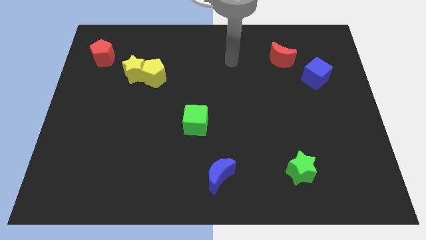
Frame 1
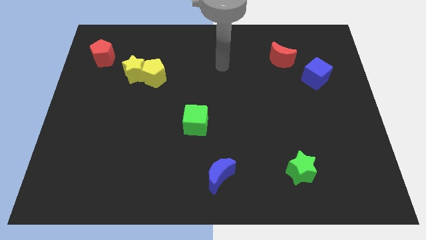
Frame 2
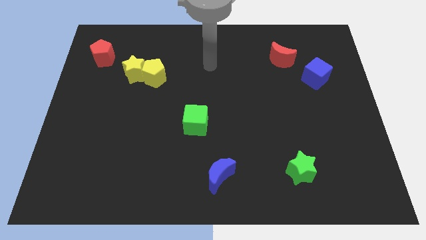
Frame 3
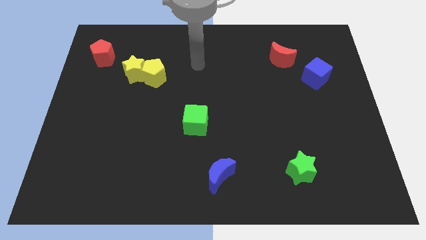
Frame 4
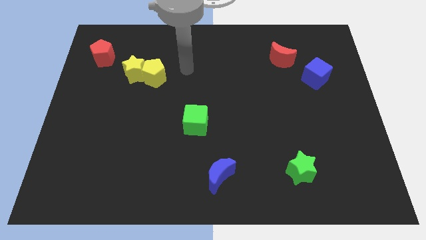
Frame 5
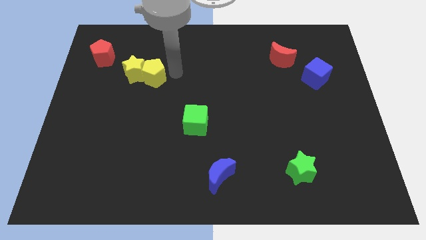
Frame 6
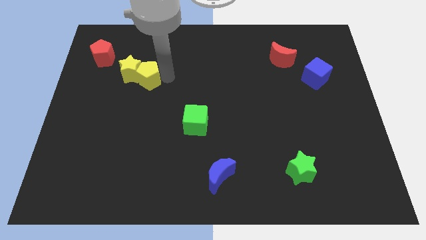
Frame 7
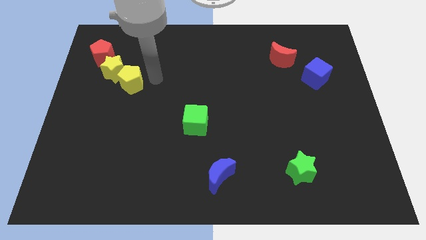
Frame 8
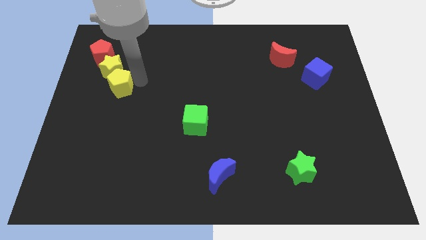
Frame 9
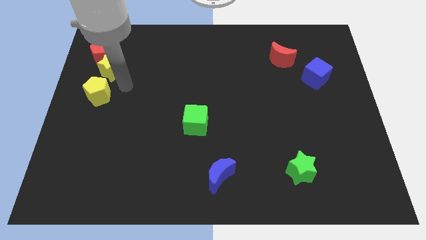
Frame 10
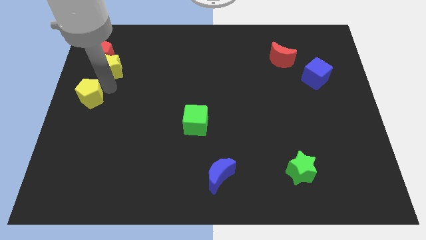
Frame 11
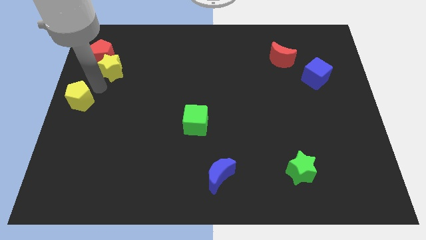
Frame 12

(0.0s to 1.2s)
pull the yellow star apart from the yellow pentagon

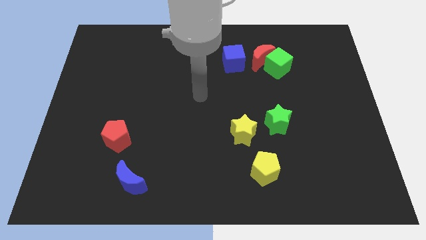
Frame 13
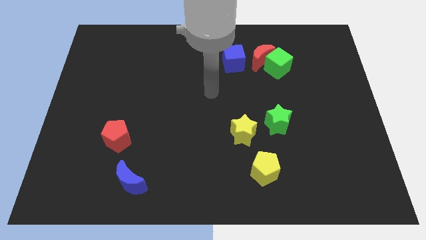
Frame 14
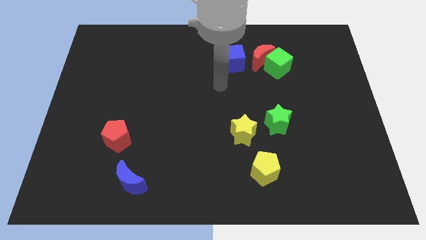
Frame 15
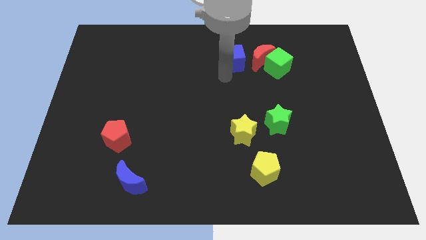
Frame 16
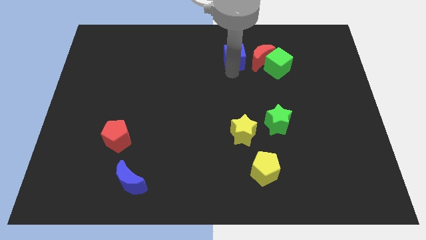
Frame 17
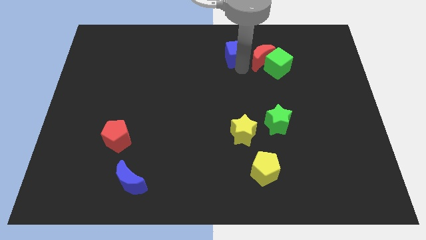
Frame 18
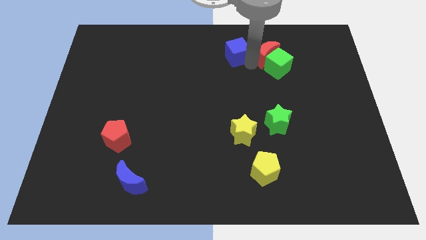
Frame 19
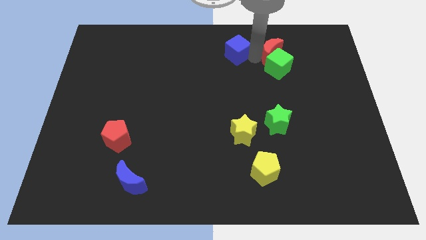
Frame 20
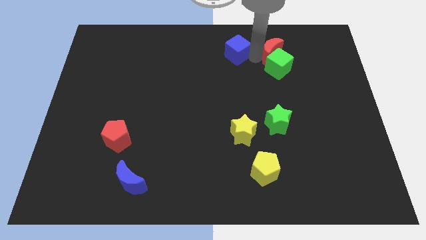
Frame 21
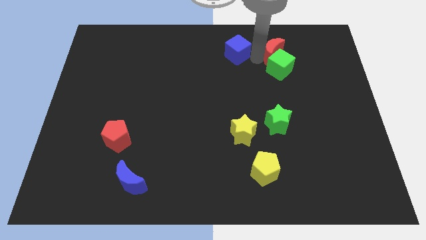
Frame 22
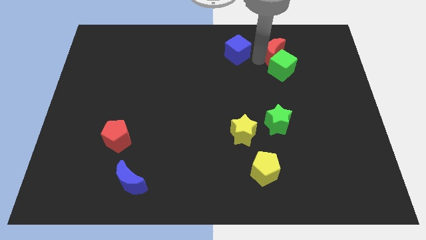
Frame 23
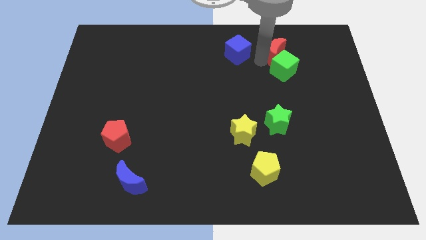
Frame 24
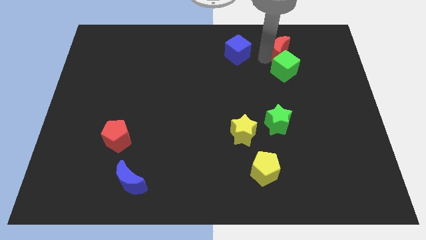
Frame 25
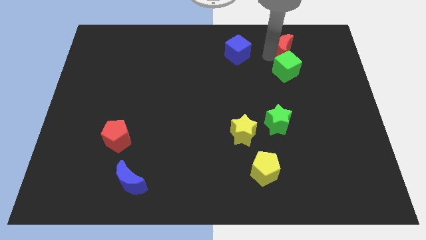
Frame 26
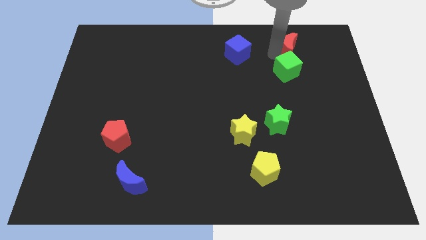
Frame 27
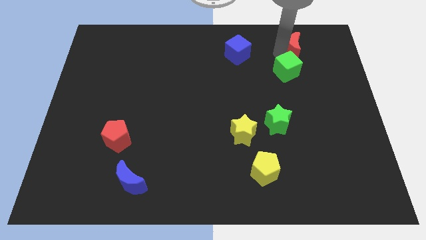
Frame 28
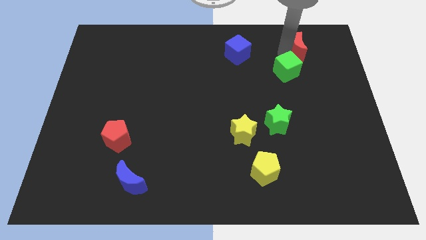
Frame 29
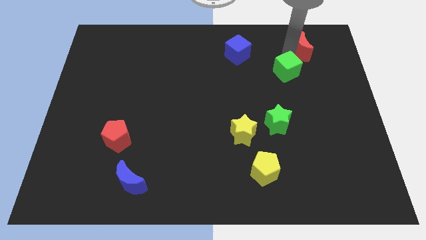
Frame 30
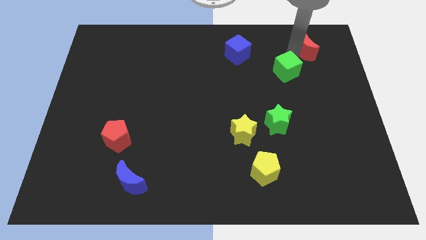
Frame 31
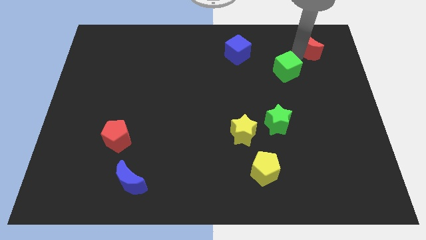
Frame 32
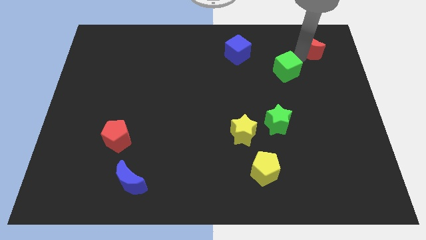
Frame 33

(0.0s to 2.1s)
separate the green cube from the red moon

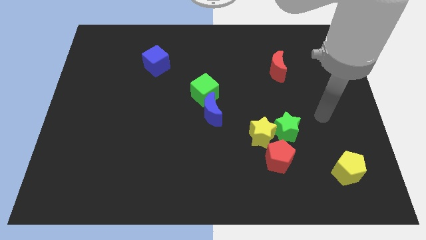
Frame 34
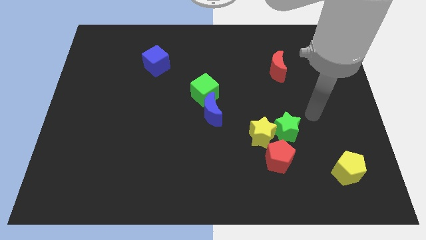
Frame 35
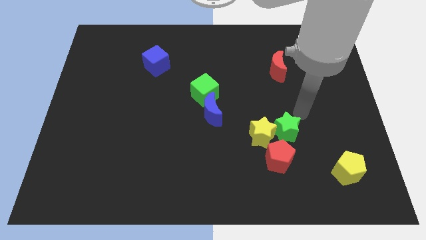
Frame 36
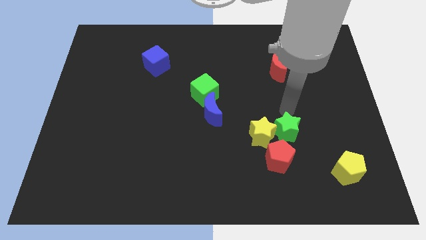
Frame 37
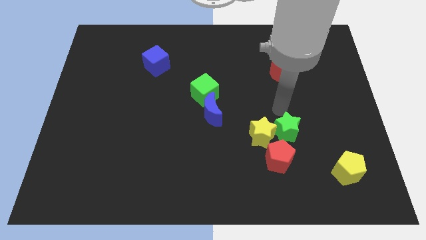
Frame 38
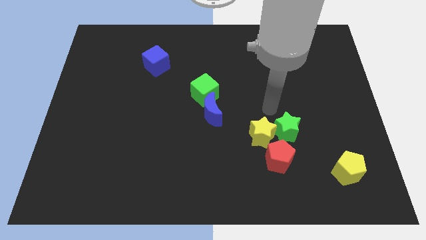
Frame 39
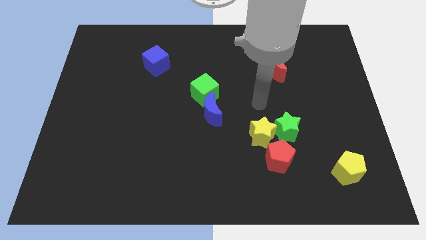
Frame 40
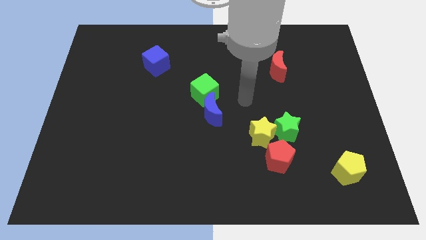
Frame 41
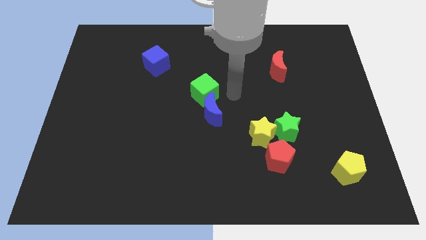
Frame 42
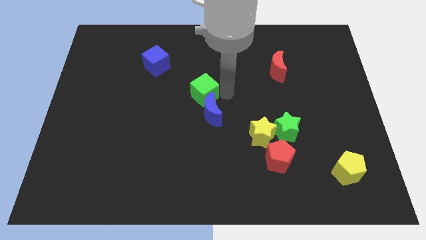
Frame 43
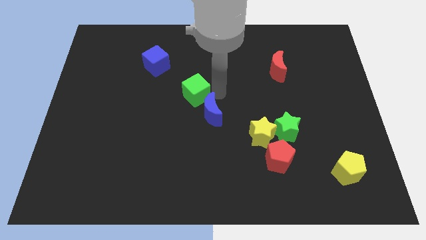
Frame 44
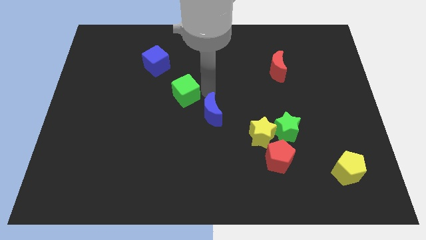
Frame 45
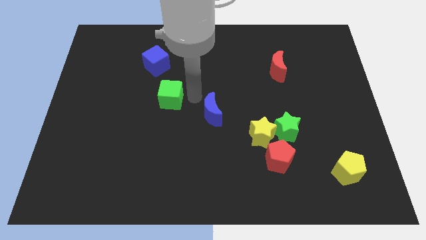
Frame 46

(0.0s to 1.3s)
separate the blue moon from the green cube

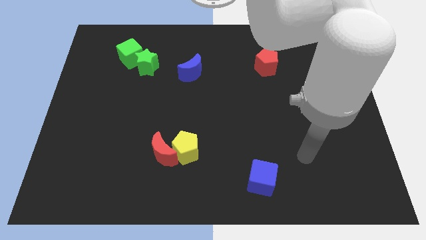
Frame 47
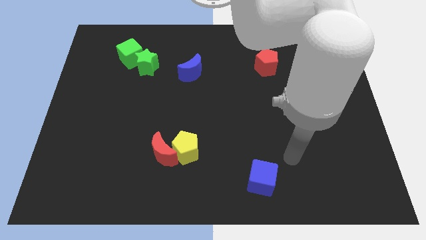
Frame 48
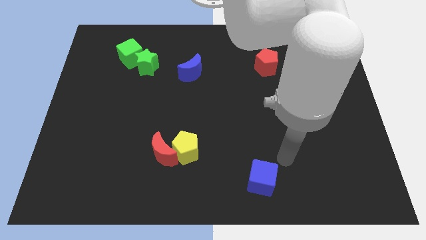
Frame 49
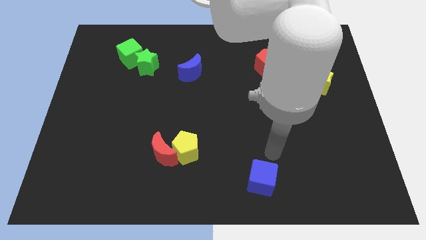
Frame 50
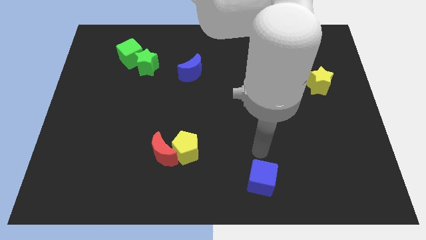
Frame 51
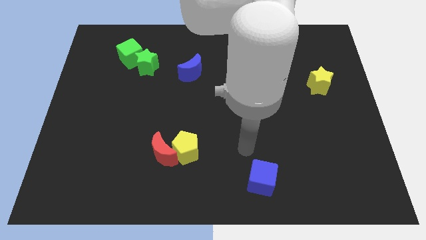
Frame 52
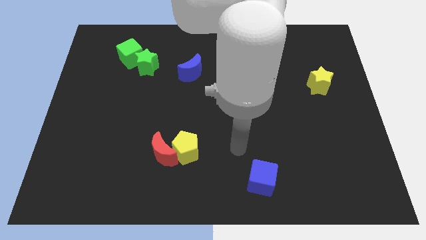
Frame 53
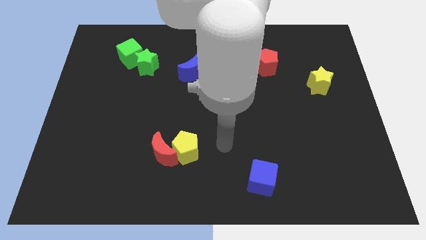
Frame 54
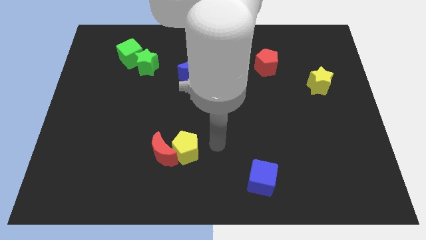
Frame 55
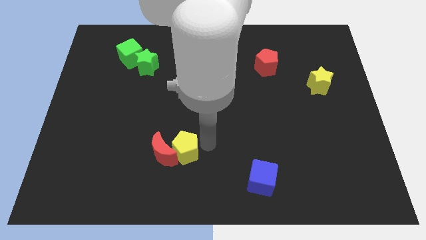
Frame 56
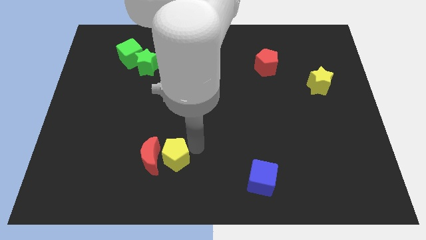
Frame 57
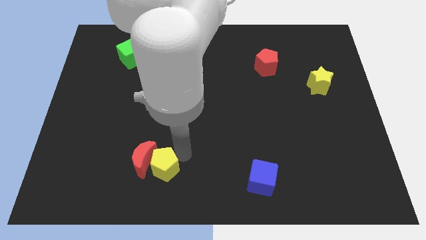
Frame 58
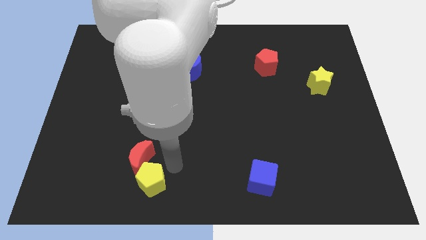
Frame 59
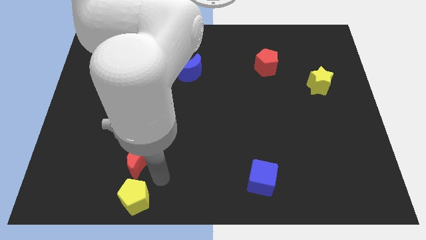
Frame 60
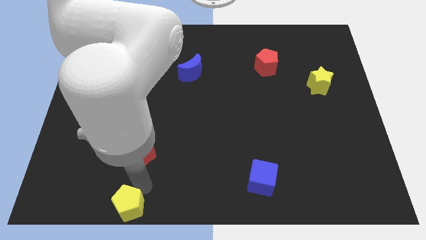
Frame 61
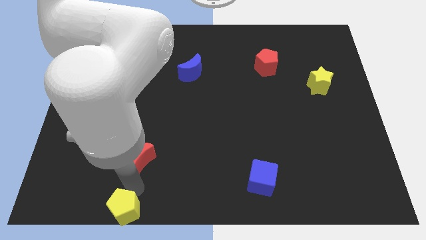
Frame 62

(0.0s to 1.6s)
move the red moon away from the yellow pentagon

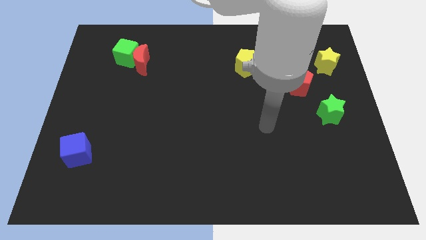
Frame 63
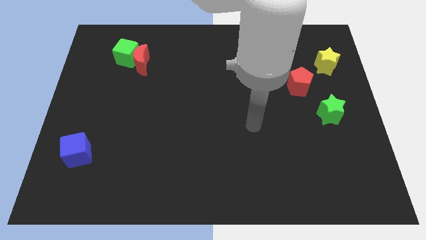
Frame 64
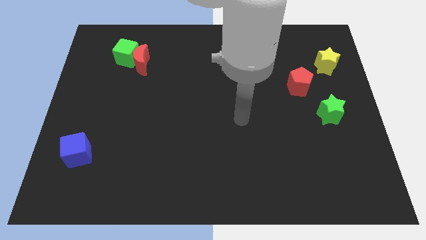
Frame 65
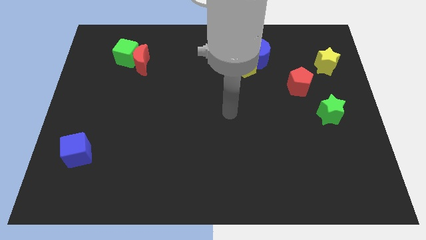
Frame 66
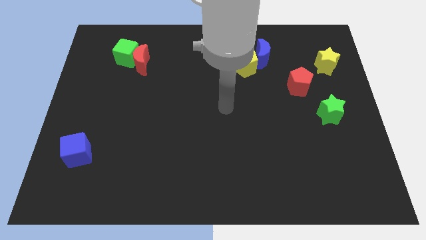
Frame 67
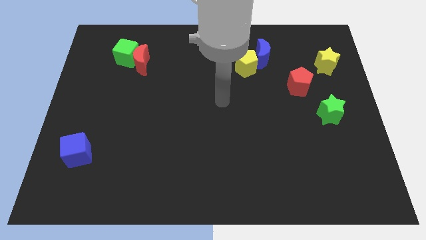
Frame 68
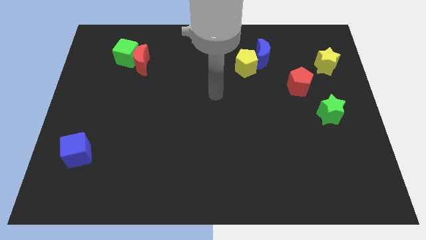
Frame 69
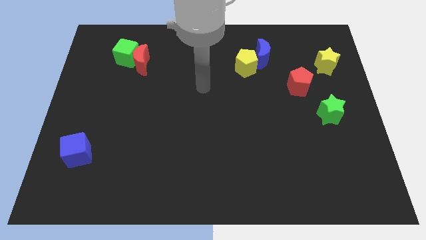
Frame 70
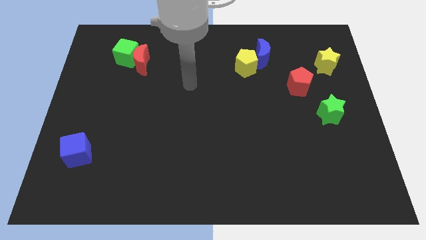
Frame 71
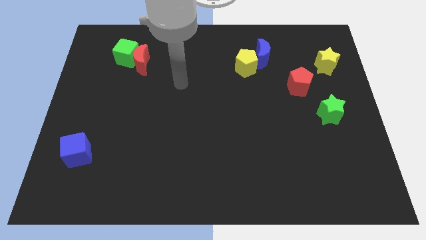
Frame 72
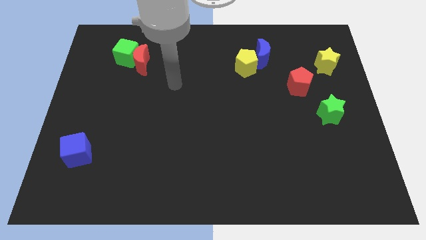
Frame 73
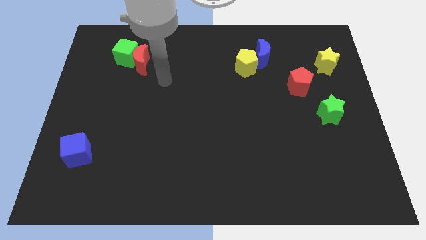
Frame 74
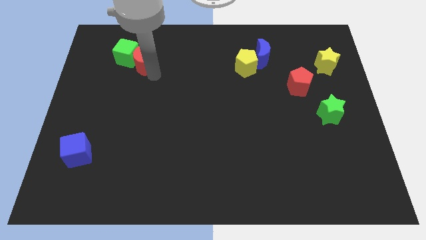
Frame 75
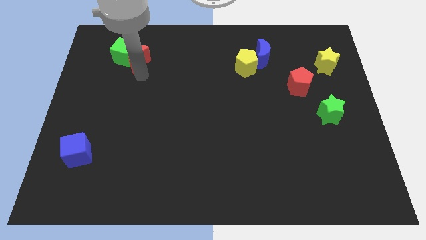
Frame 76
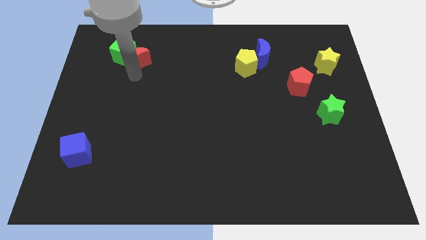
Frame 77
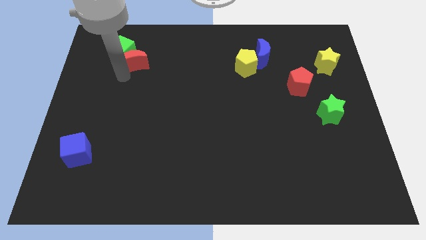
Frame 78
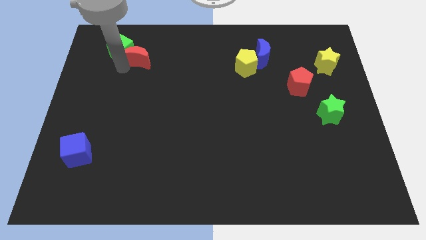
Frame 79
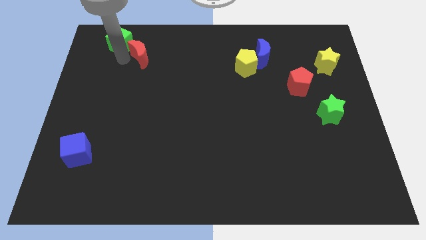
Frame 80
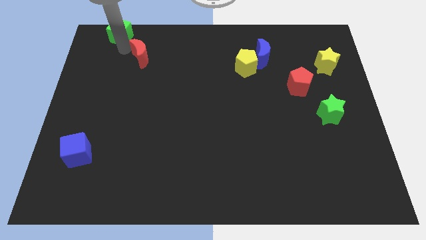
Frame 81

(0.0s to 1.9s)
move the red moon away from the green cube

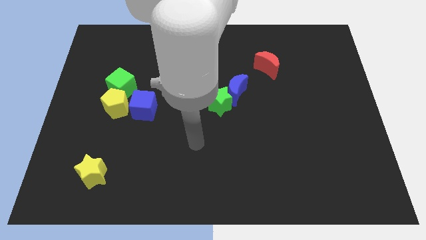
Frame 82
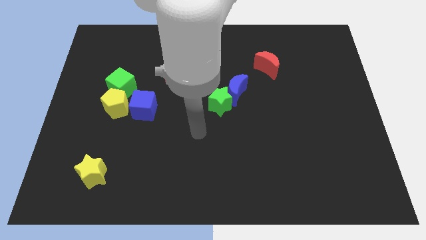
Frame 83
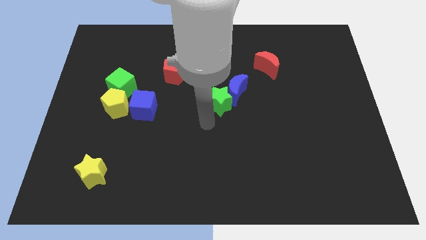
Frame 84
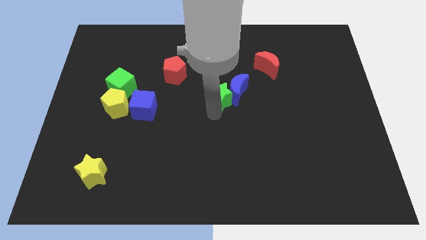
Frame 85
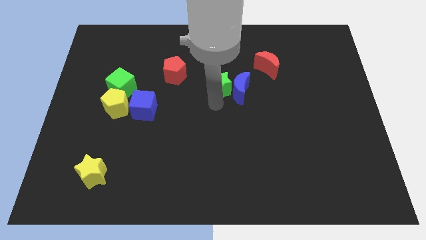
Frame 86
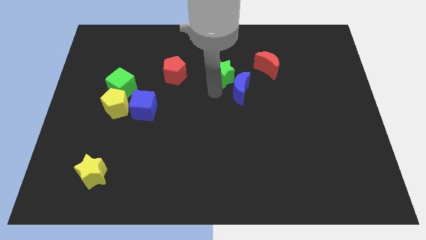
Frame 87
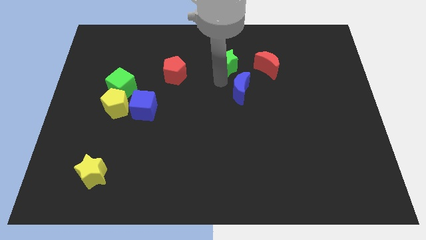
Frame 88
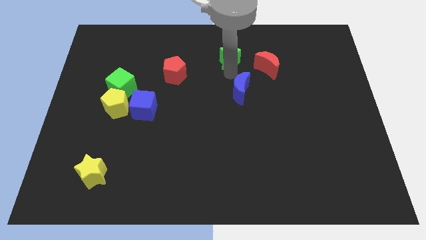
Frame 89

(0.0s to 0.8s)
pull the blue moon apart from the green star

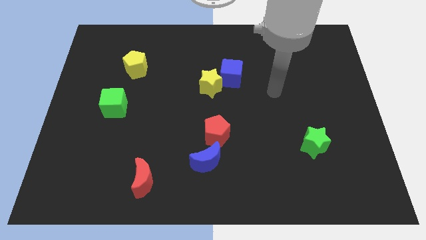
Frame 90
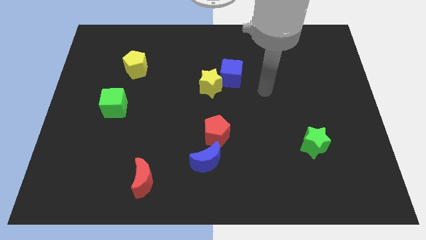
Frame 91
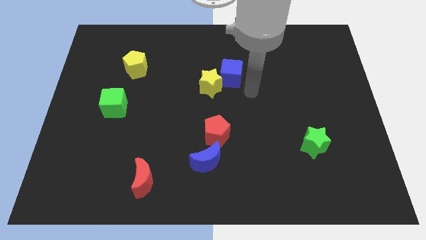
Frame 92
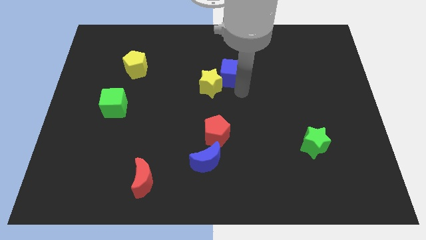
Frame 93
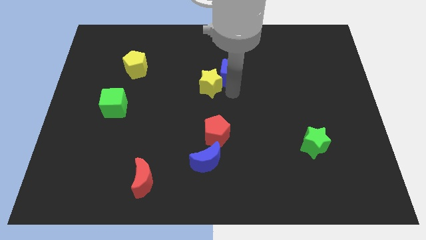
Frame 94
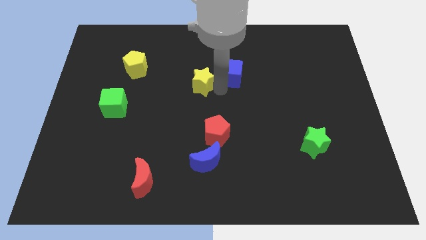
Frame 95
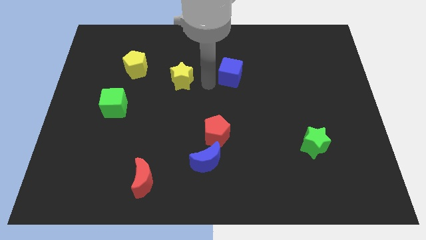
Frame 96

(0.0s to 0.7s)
move the blue cube away from the yellow star
